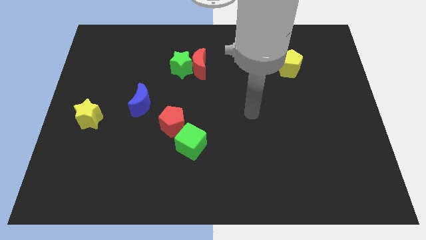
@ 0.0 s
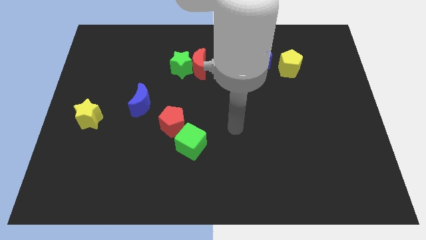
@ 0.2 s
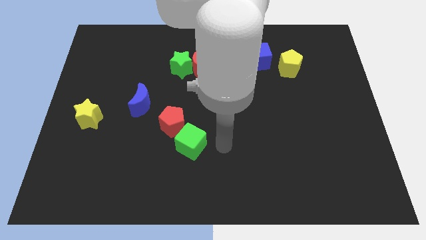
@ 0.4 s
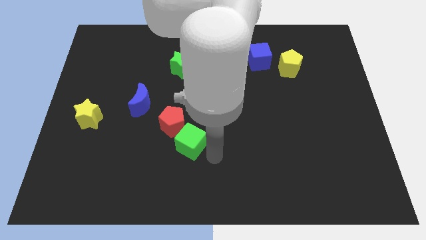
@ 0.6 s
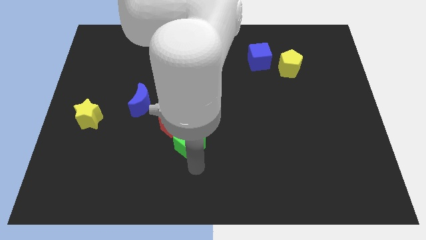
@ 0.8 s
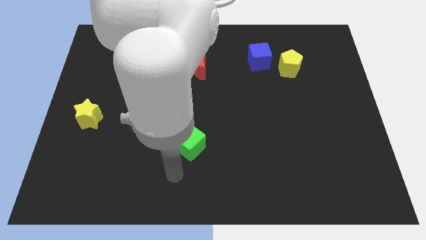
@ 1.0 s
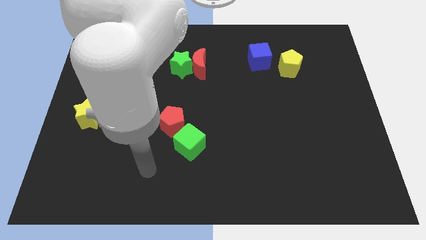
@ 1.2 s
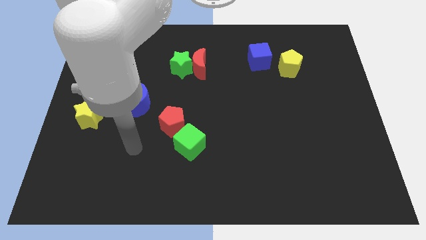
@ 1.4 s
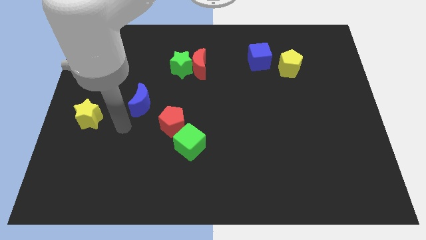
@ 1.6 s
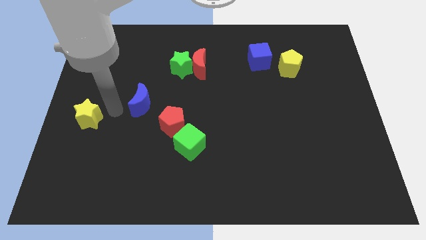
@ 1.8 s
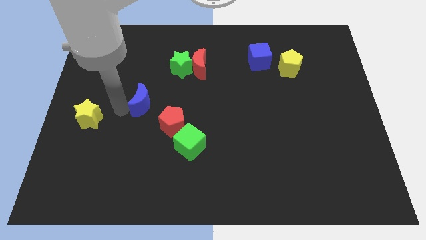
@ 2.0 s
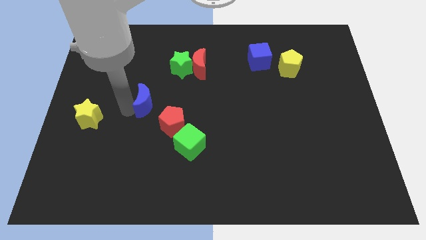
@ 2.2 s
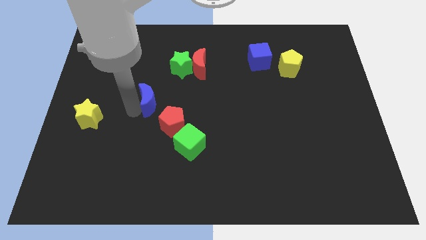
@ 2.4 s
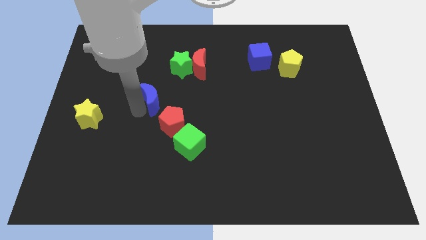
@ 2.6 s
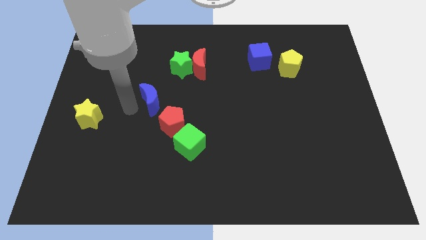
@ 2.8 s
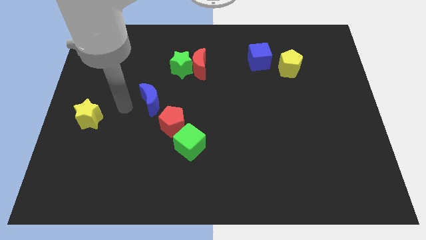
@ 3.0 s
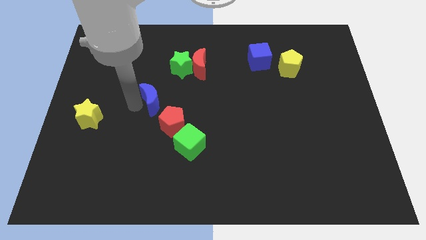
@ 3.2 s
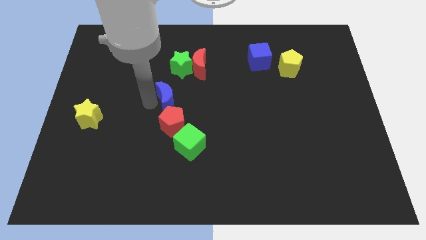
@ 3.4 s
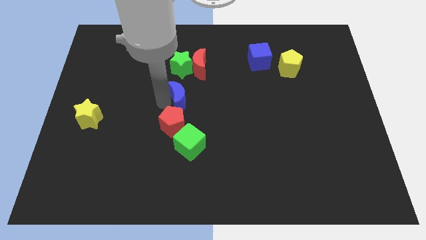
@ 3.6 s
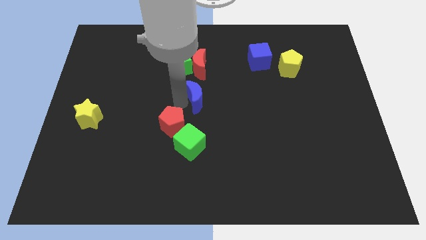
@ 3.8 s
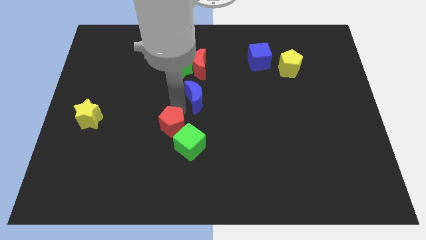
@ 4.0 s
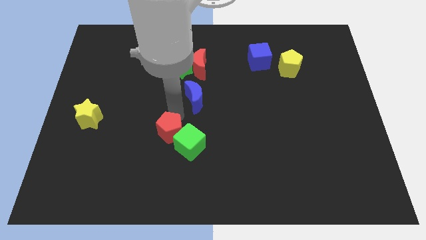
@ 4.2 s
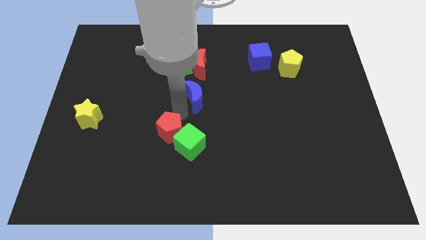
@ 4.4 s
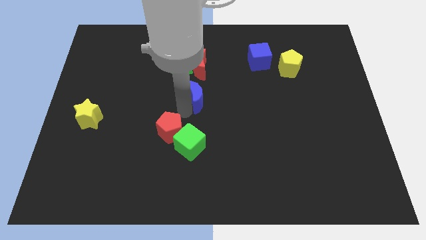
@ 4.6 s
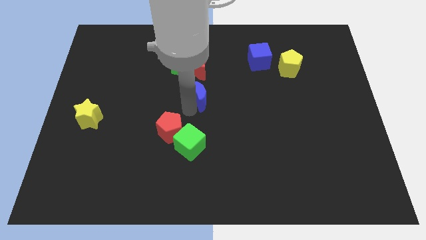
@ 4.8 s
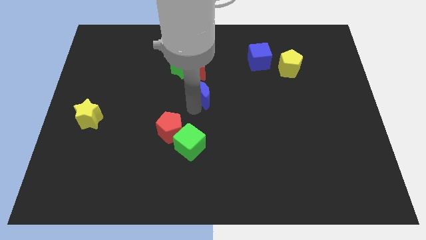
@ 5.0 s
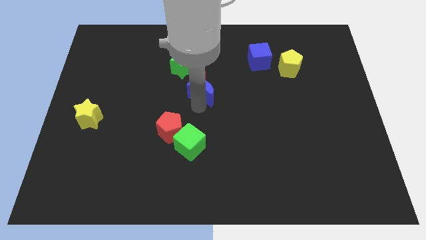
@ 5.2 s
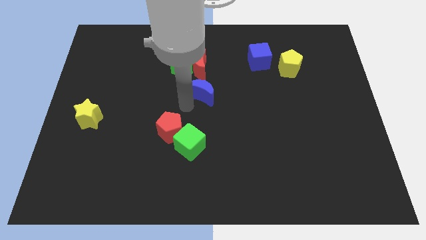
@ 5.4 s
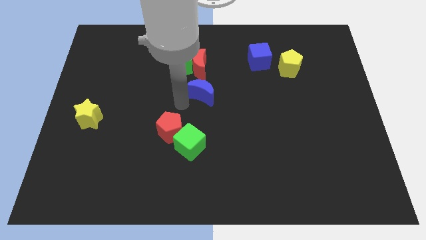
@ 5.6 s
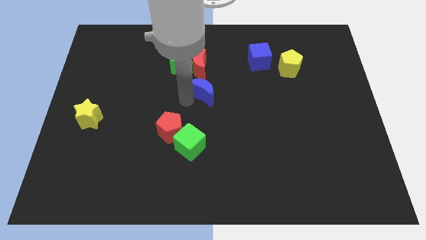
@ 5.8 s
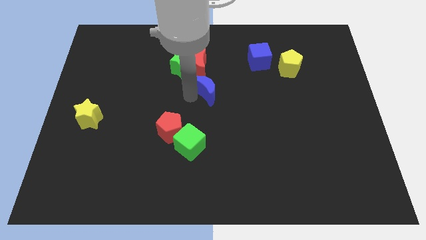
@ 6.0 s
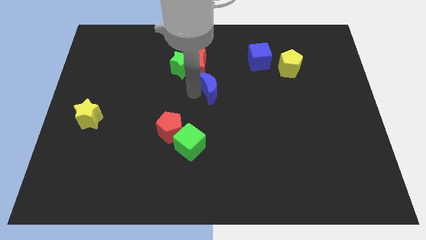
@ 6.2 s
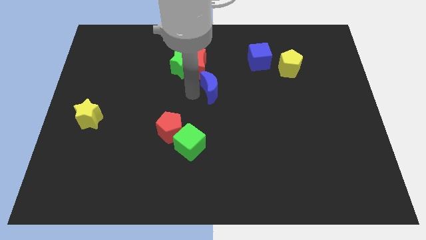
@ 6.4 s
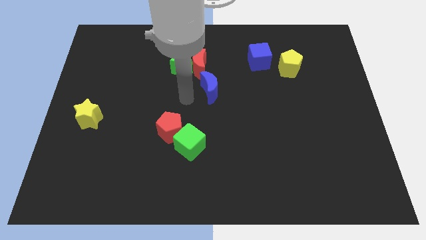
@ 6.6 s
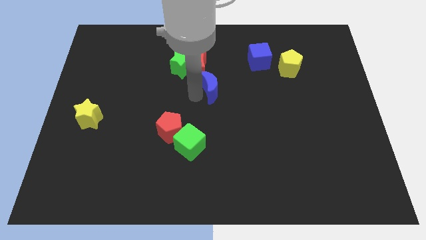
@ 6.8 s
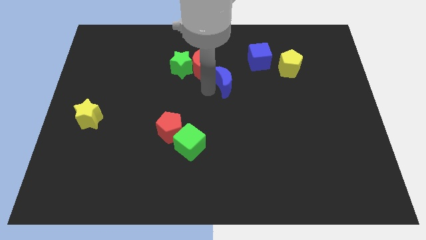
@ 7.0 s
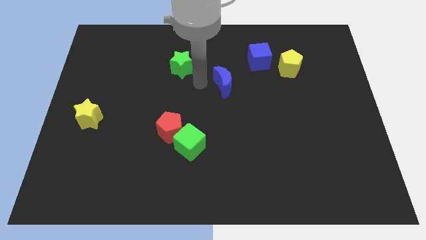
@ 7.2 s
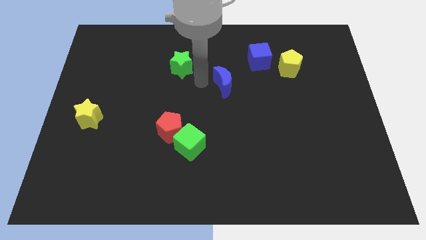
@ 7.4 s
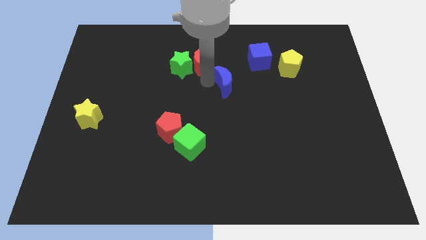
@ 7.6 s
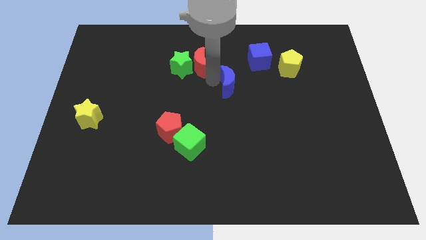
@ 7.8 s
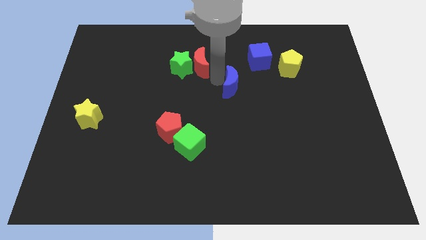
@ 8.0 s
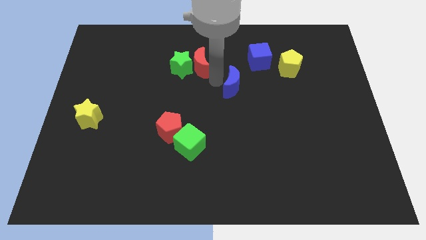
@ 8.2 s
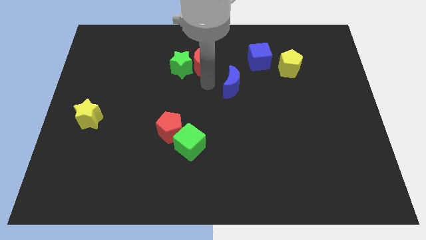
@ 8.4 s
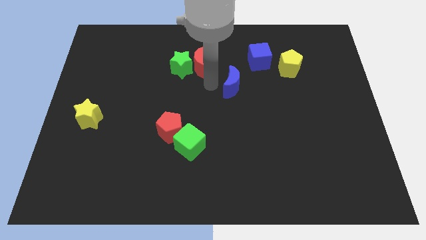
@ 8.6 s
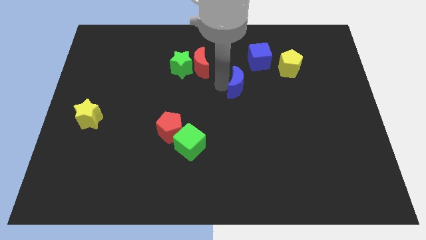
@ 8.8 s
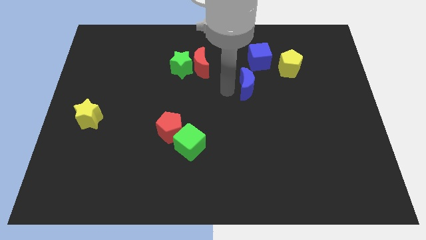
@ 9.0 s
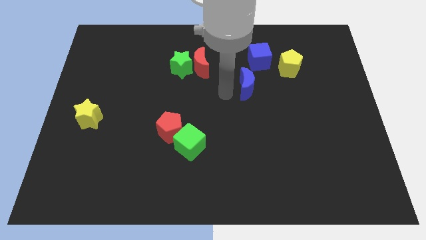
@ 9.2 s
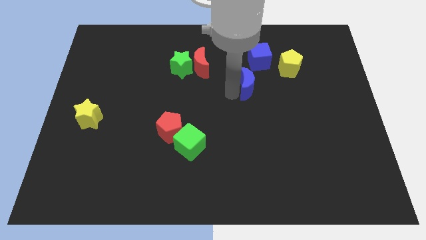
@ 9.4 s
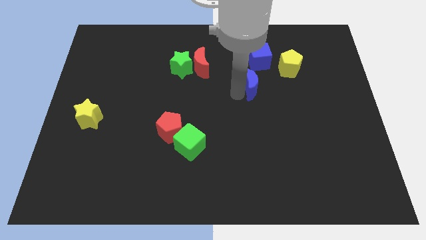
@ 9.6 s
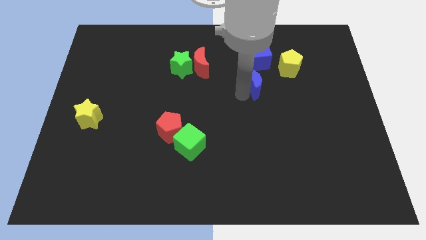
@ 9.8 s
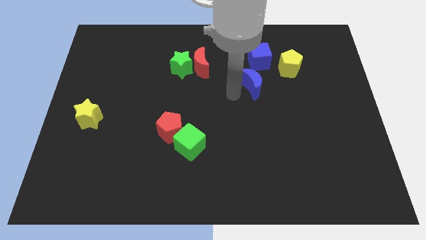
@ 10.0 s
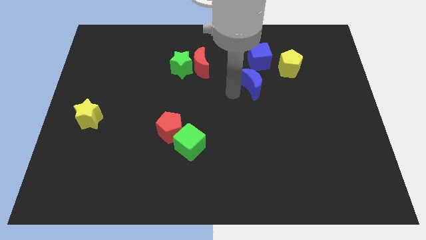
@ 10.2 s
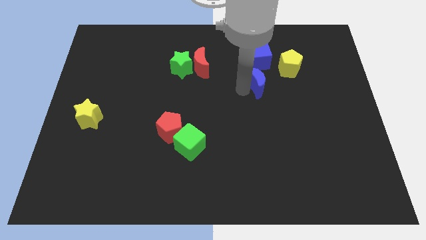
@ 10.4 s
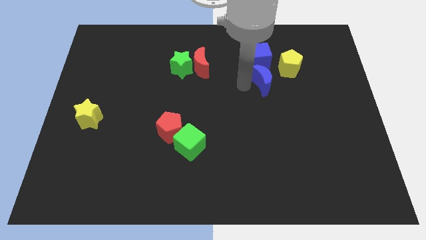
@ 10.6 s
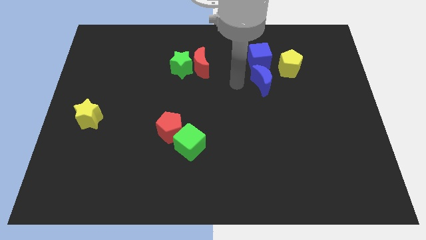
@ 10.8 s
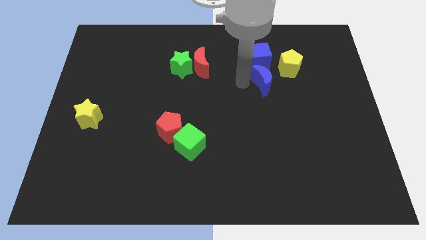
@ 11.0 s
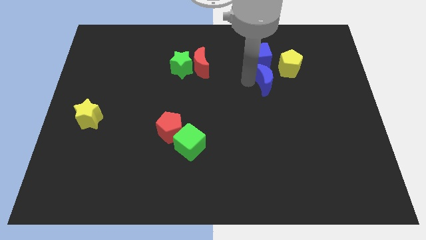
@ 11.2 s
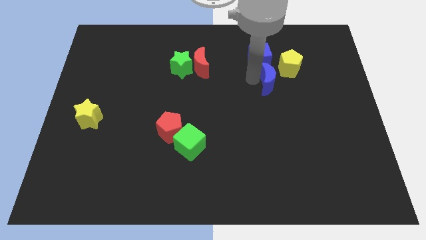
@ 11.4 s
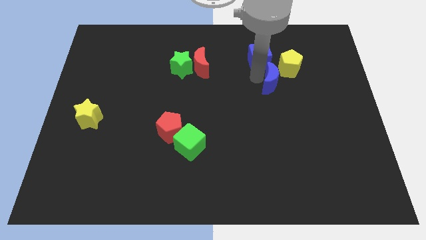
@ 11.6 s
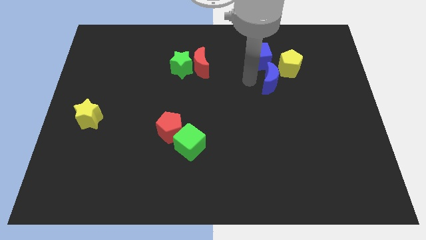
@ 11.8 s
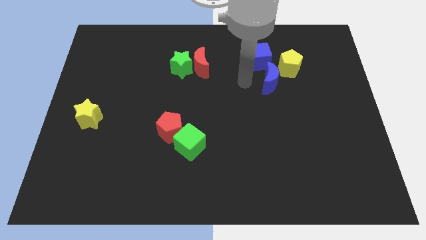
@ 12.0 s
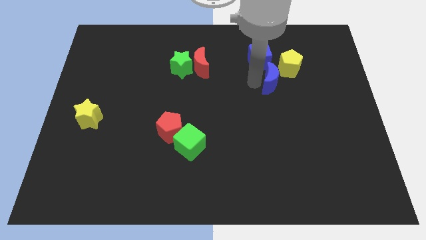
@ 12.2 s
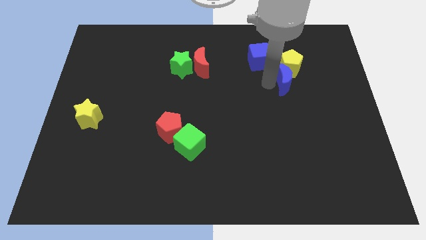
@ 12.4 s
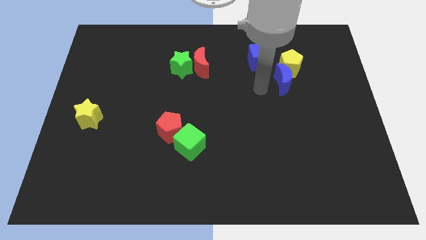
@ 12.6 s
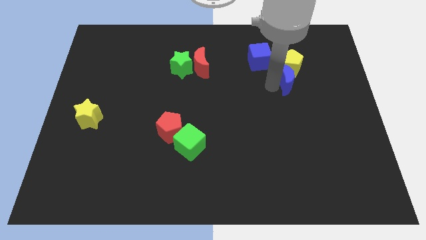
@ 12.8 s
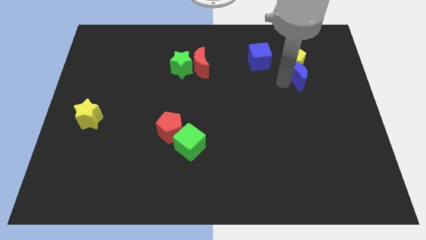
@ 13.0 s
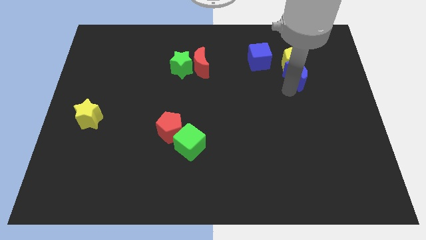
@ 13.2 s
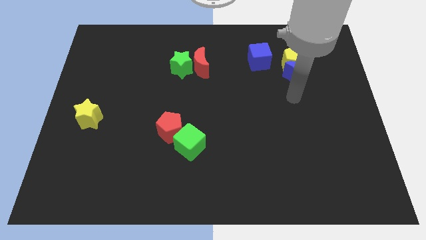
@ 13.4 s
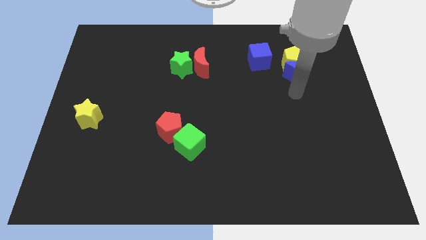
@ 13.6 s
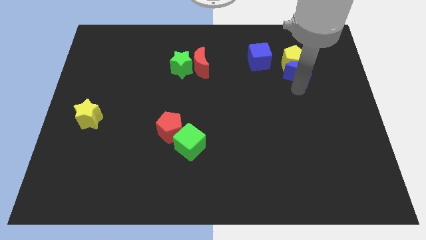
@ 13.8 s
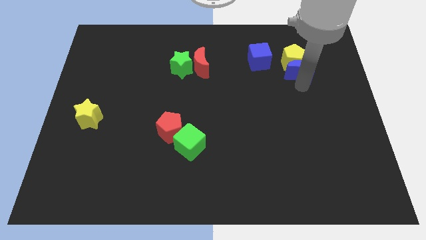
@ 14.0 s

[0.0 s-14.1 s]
push the blue moon to the right of the blue cube

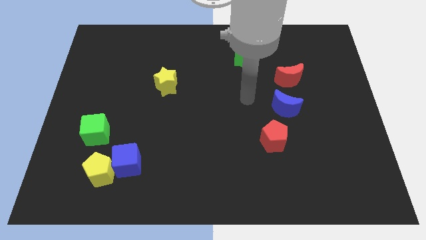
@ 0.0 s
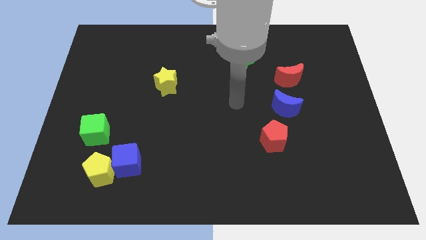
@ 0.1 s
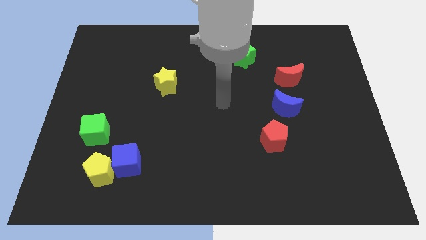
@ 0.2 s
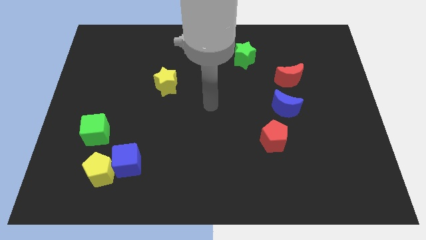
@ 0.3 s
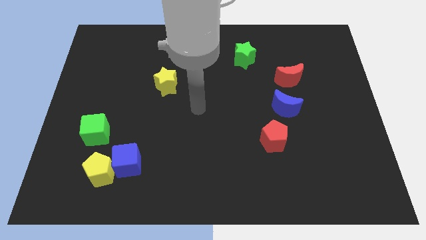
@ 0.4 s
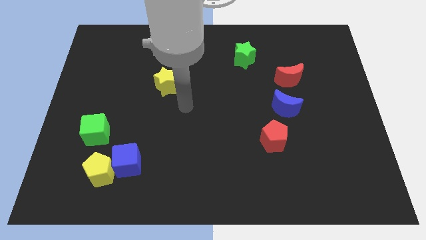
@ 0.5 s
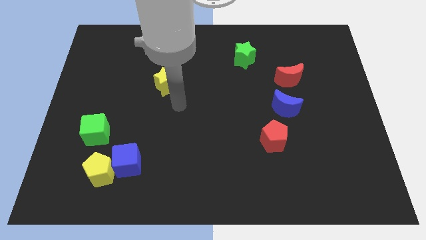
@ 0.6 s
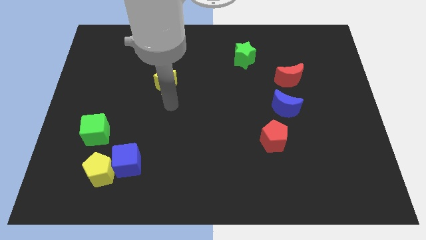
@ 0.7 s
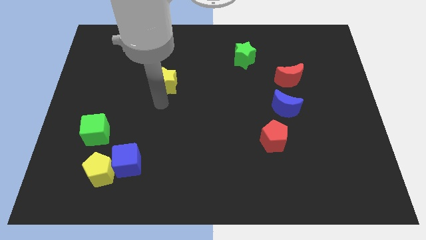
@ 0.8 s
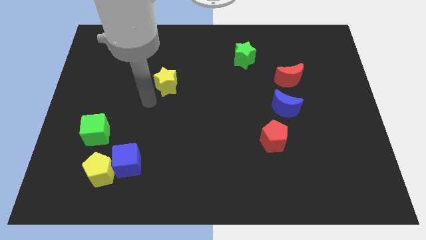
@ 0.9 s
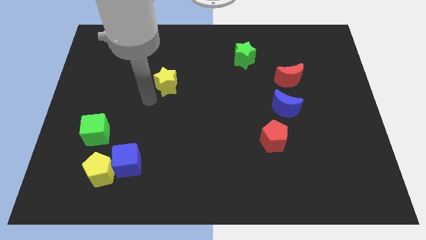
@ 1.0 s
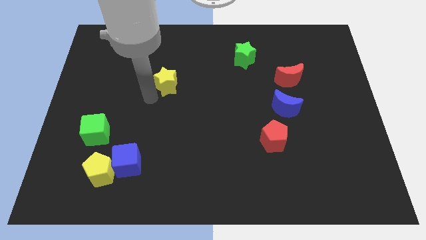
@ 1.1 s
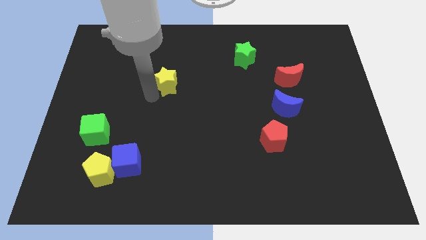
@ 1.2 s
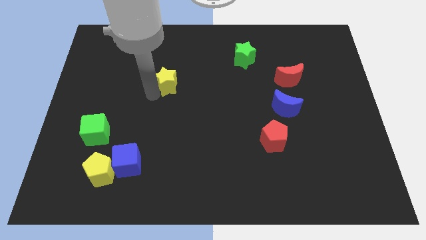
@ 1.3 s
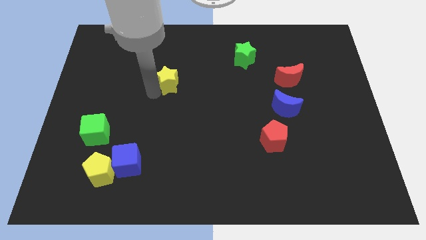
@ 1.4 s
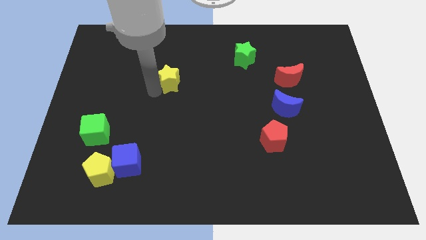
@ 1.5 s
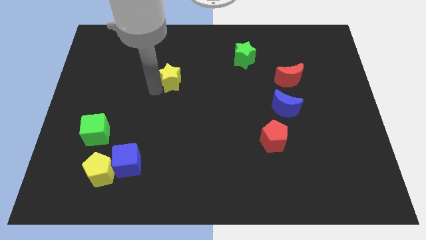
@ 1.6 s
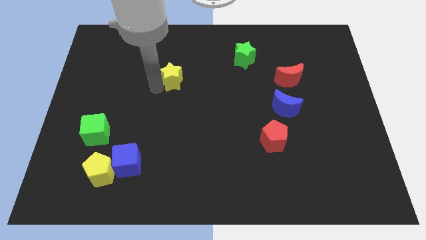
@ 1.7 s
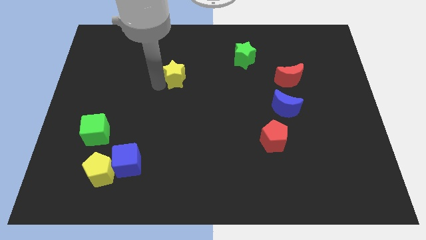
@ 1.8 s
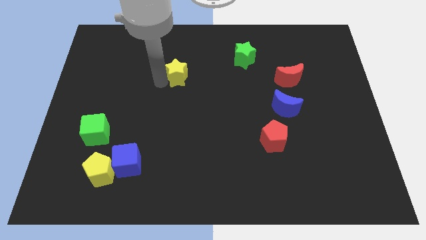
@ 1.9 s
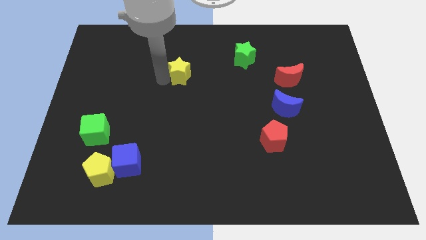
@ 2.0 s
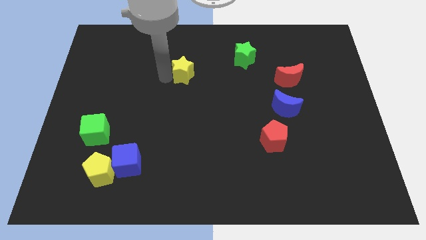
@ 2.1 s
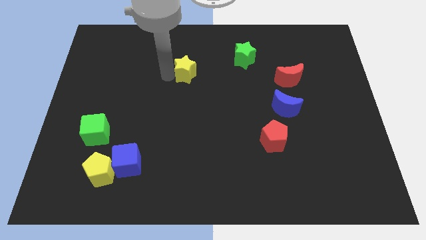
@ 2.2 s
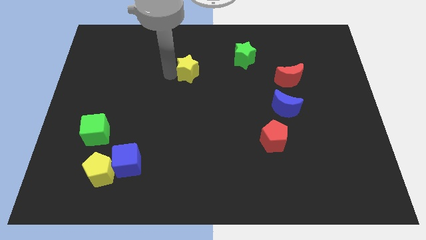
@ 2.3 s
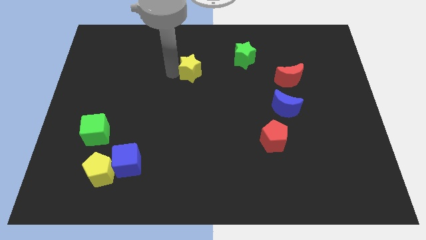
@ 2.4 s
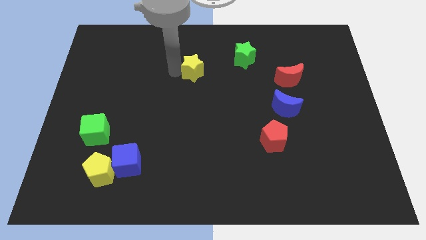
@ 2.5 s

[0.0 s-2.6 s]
slide the yellow star left of the green star
